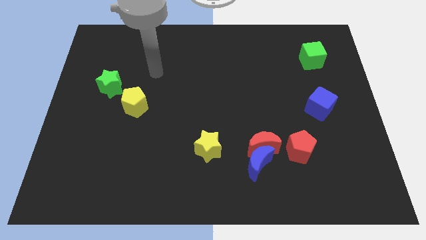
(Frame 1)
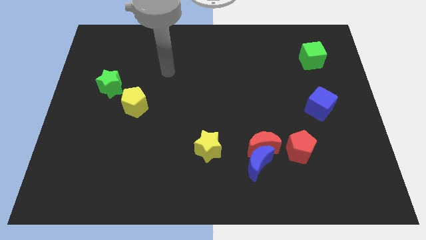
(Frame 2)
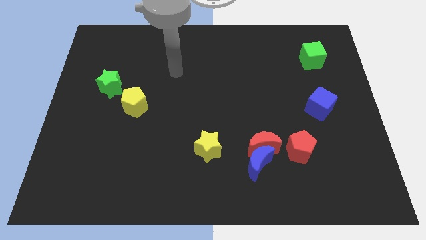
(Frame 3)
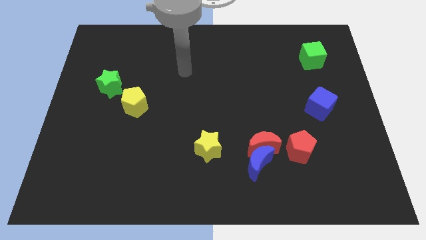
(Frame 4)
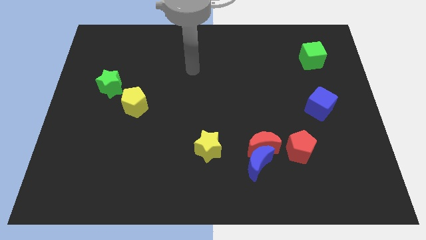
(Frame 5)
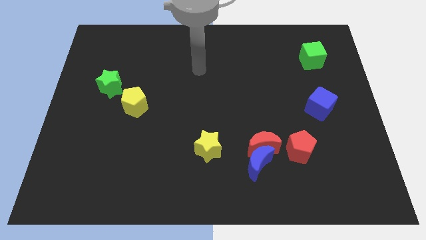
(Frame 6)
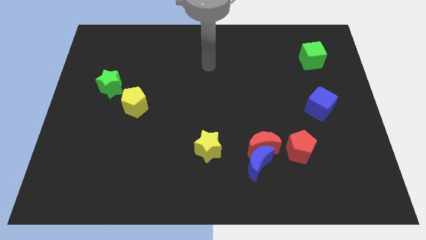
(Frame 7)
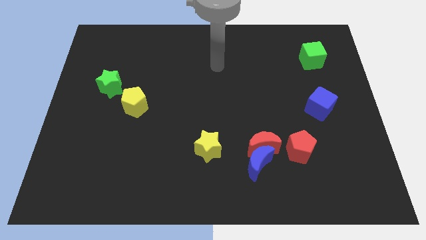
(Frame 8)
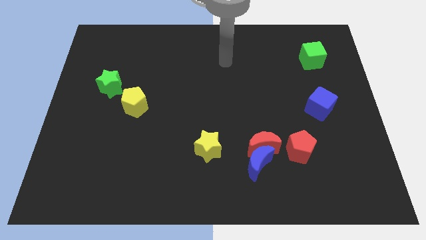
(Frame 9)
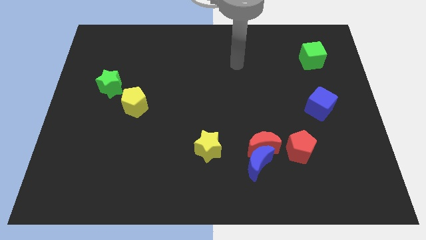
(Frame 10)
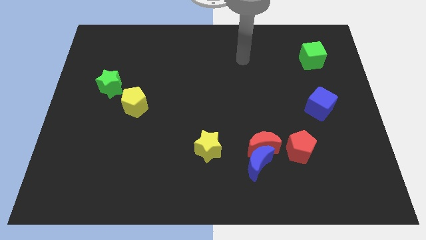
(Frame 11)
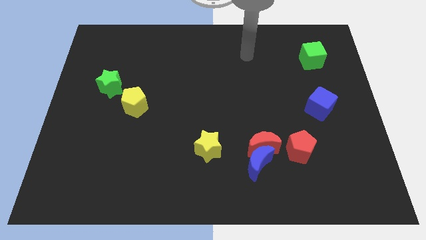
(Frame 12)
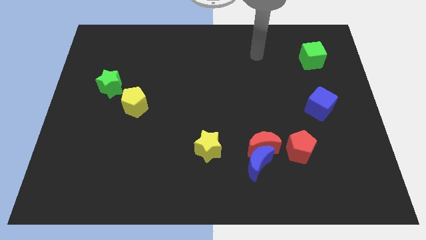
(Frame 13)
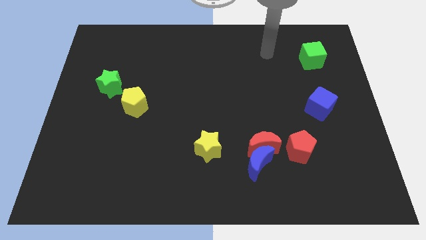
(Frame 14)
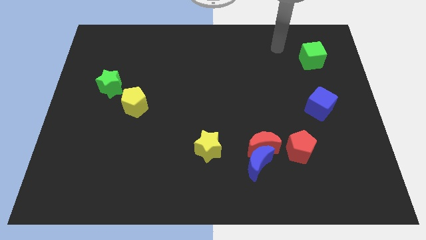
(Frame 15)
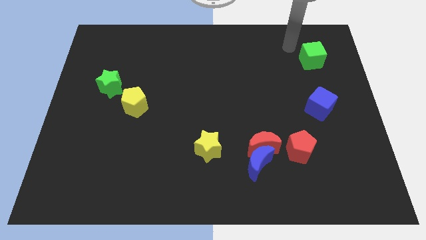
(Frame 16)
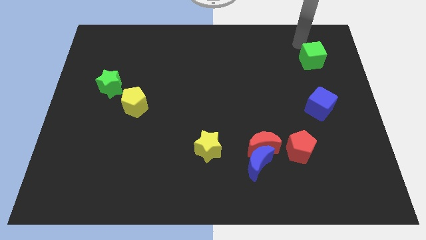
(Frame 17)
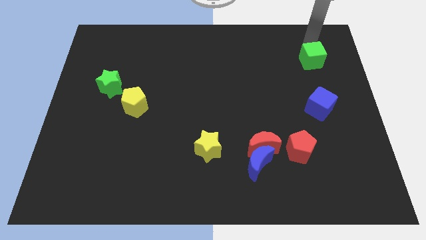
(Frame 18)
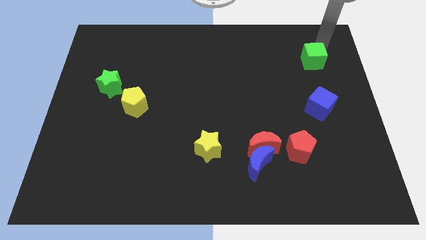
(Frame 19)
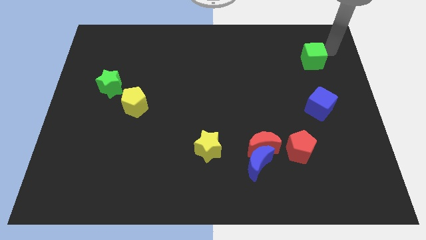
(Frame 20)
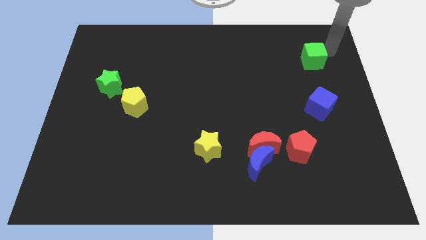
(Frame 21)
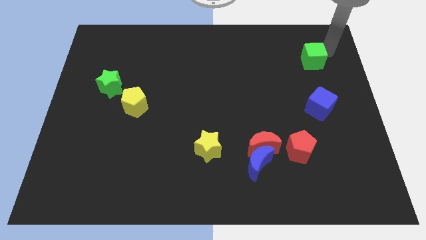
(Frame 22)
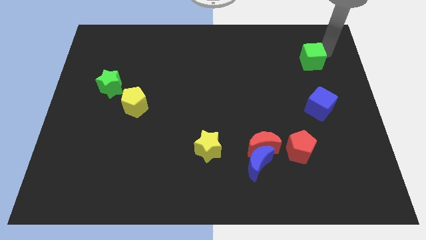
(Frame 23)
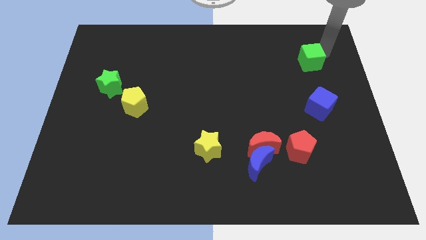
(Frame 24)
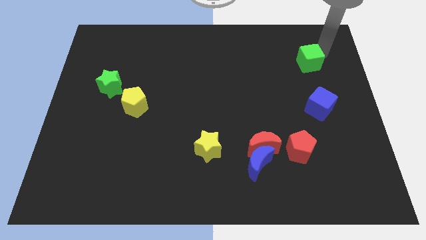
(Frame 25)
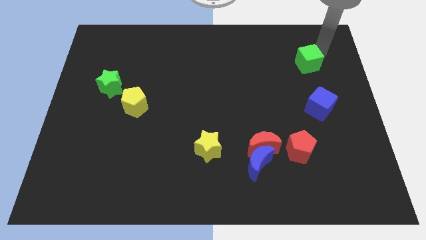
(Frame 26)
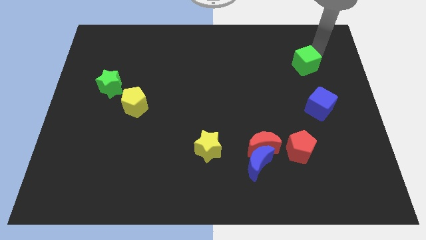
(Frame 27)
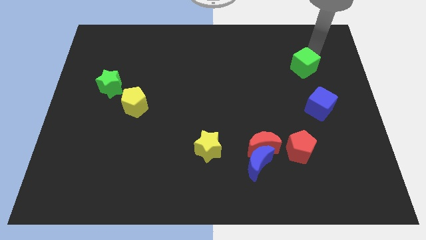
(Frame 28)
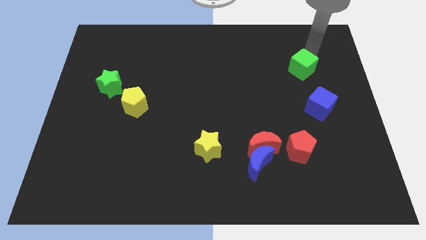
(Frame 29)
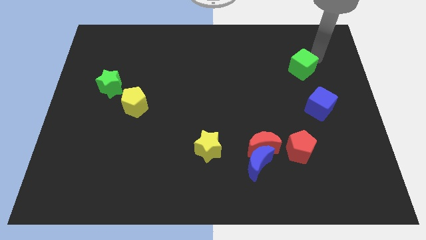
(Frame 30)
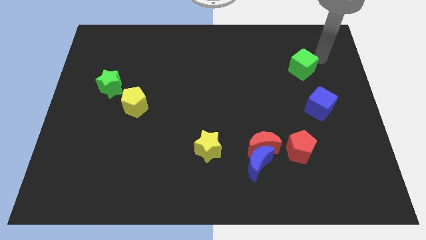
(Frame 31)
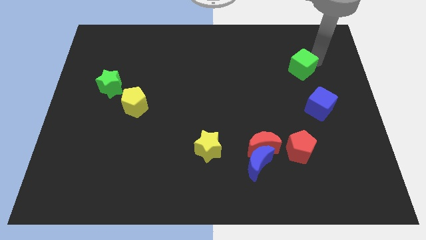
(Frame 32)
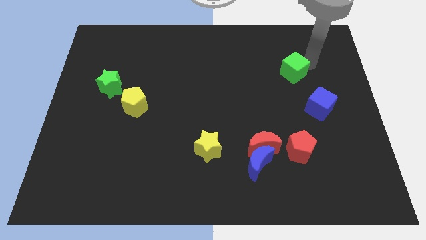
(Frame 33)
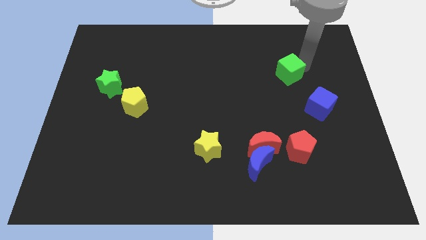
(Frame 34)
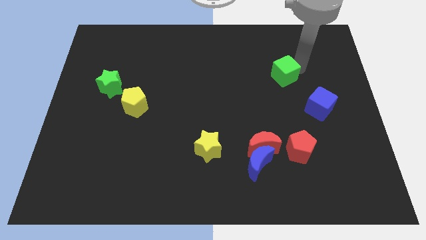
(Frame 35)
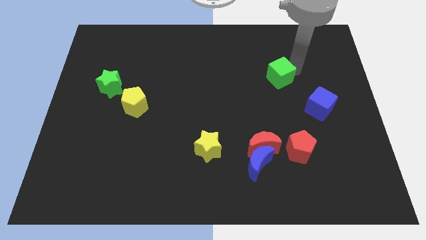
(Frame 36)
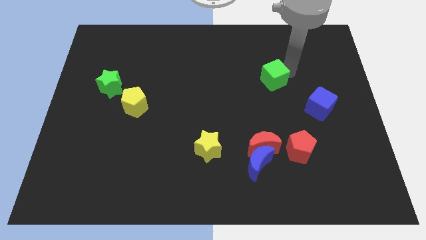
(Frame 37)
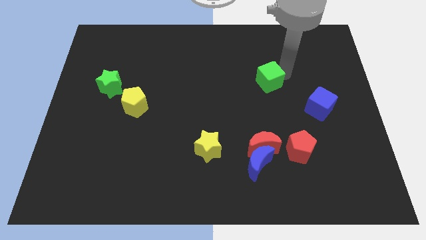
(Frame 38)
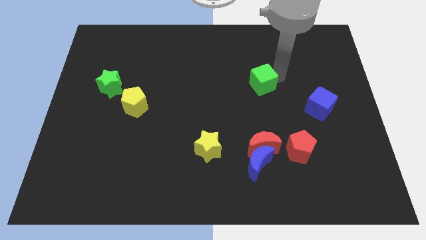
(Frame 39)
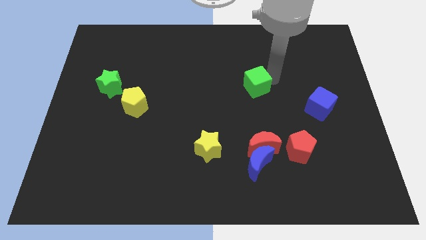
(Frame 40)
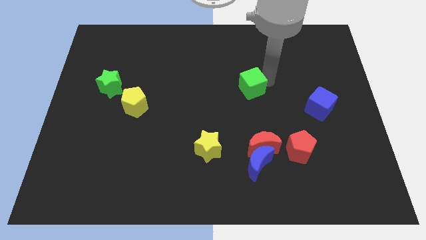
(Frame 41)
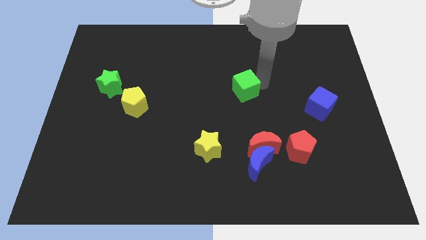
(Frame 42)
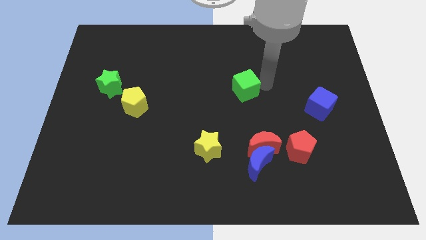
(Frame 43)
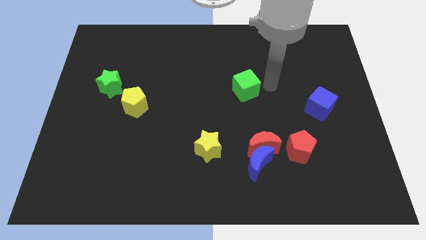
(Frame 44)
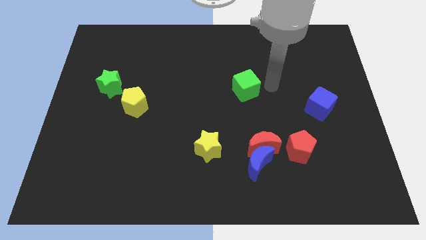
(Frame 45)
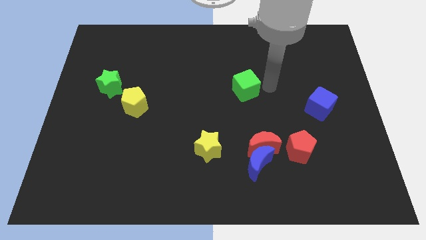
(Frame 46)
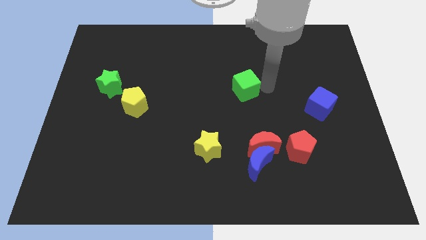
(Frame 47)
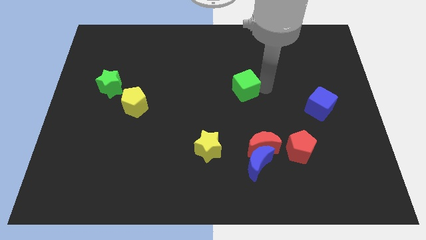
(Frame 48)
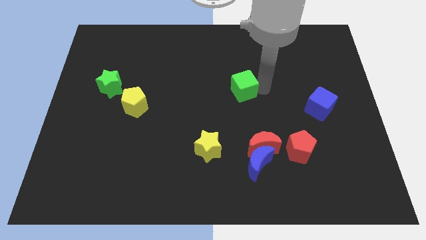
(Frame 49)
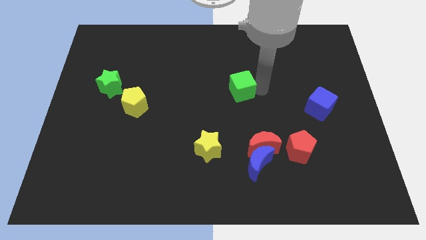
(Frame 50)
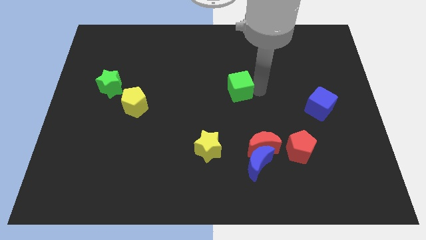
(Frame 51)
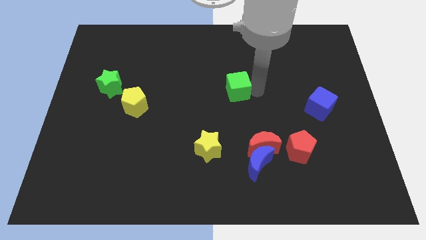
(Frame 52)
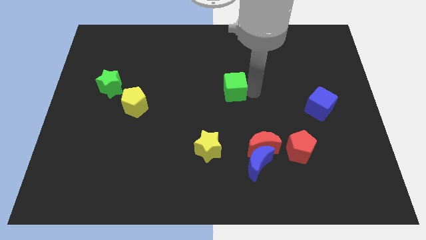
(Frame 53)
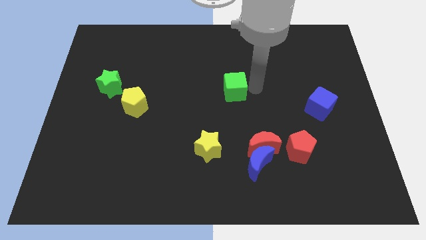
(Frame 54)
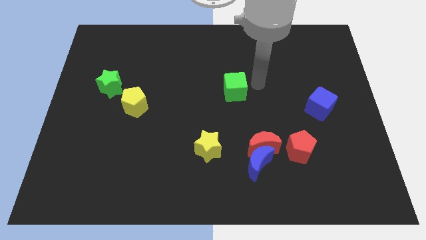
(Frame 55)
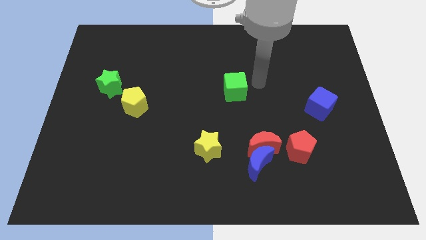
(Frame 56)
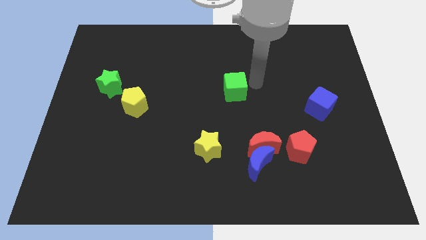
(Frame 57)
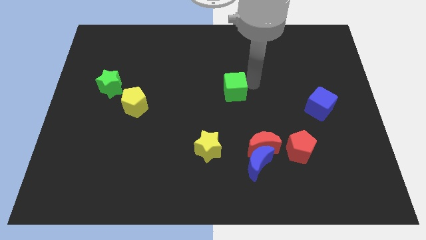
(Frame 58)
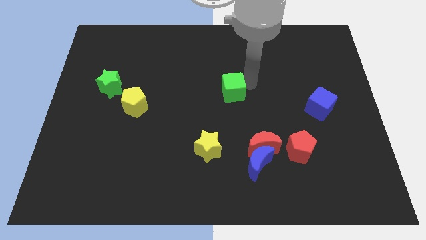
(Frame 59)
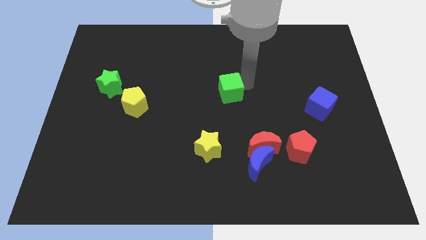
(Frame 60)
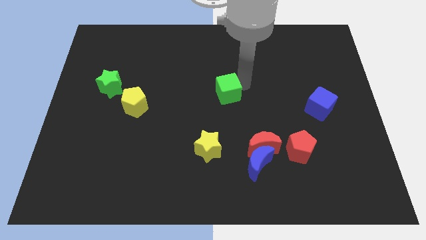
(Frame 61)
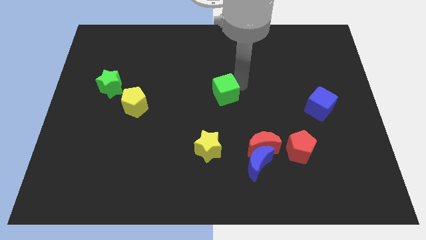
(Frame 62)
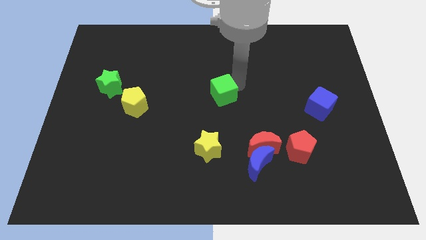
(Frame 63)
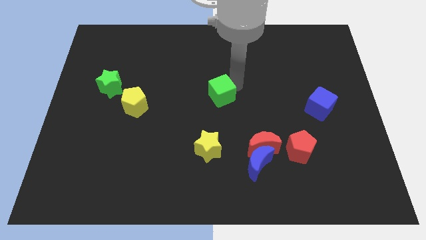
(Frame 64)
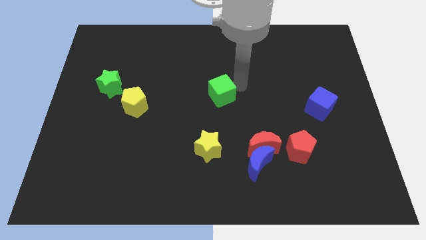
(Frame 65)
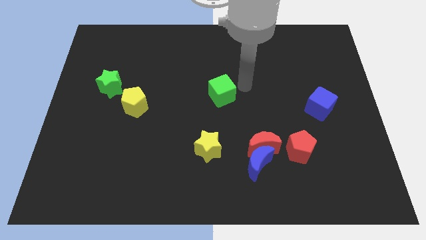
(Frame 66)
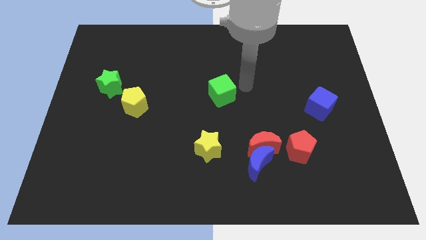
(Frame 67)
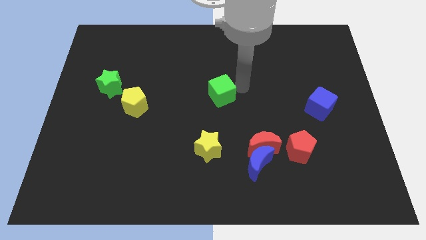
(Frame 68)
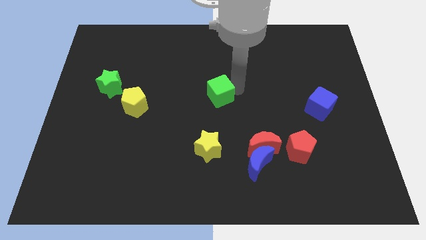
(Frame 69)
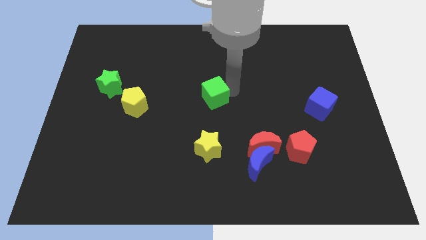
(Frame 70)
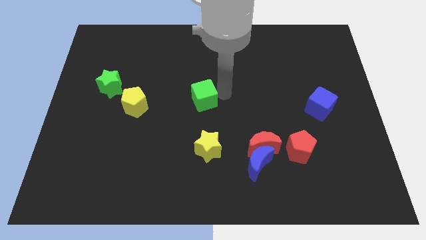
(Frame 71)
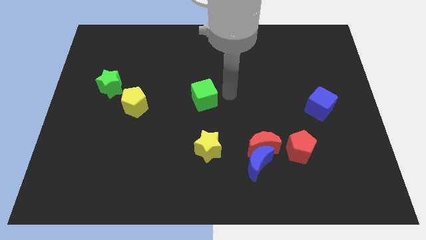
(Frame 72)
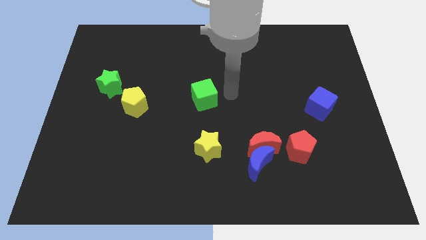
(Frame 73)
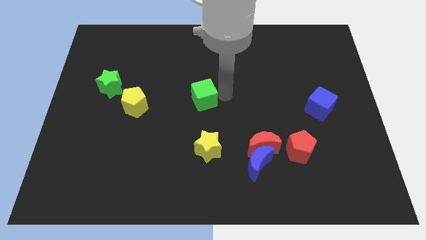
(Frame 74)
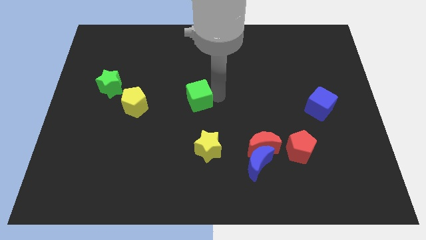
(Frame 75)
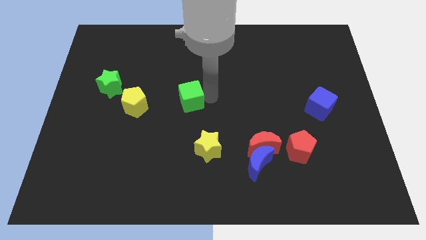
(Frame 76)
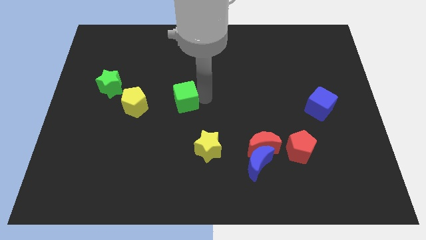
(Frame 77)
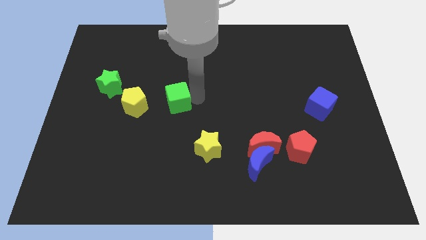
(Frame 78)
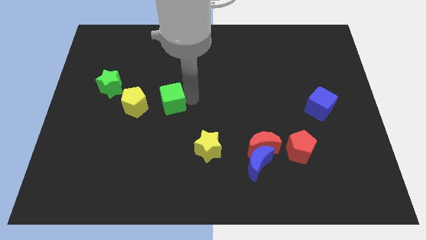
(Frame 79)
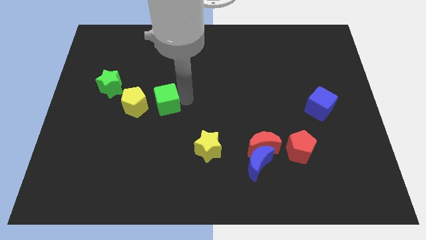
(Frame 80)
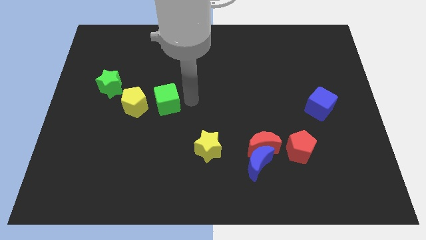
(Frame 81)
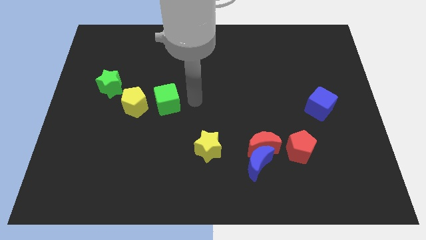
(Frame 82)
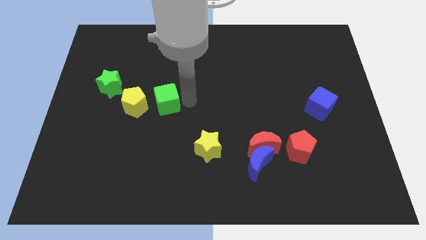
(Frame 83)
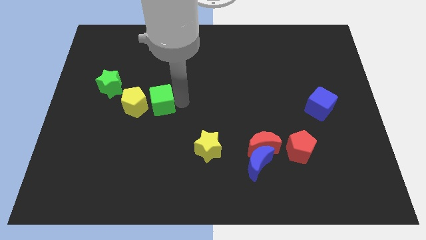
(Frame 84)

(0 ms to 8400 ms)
put the green cube next to the yellow pentagon
